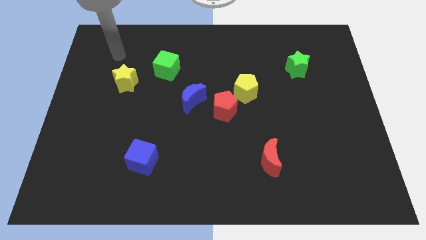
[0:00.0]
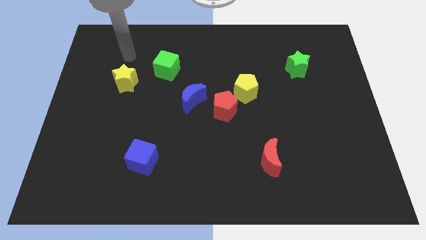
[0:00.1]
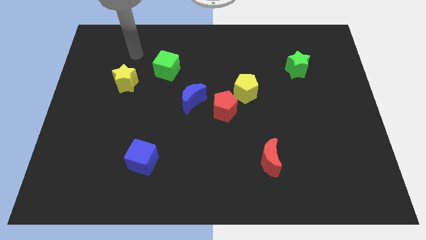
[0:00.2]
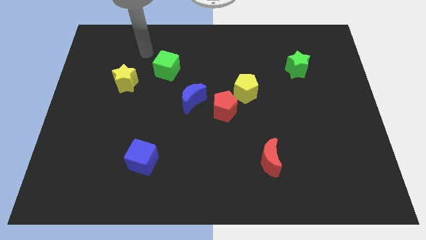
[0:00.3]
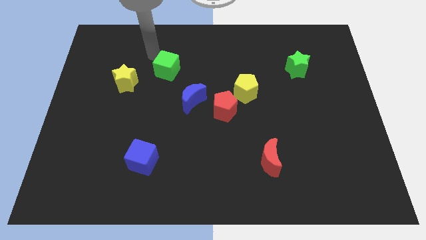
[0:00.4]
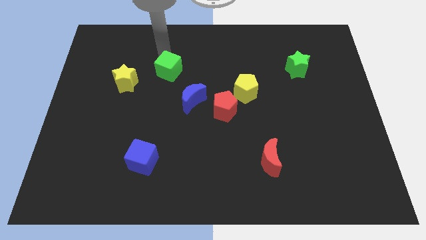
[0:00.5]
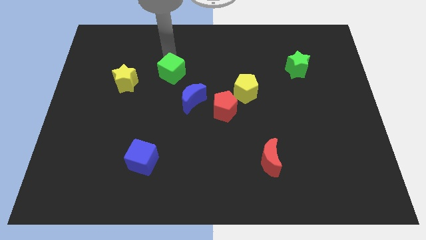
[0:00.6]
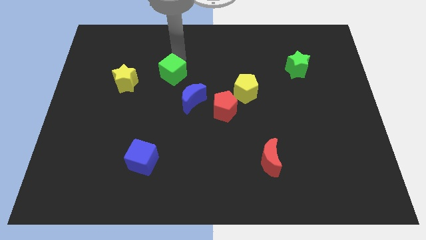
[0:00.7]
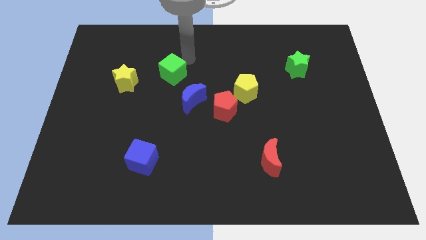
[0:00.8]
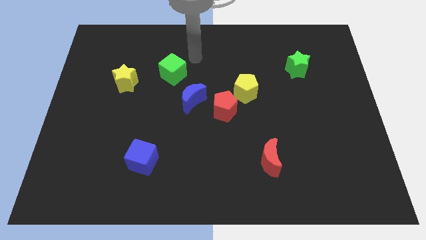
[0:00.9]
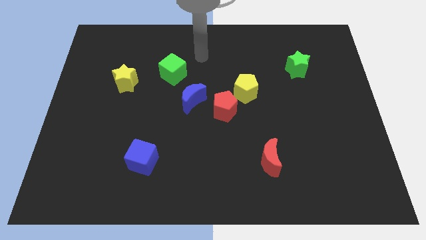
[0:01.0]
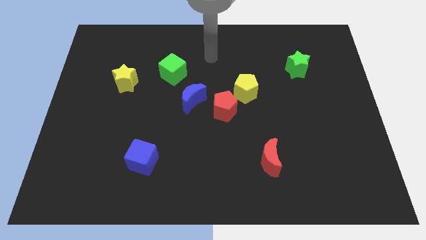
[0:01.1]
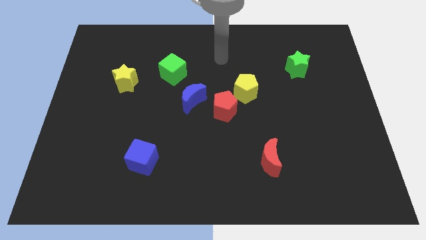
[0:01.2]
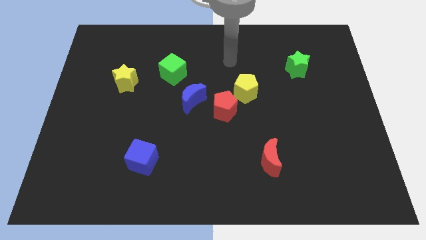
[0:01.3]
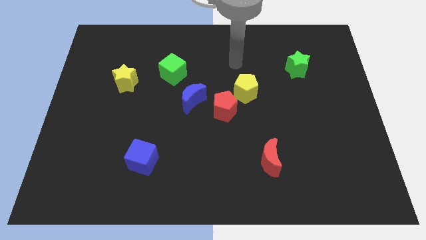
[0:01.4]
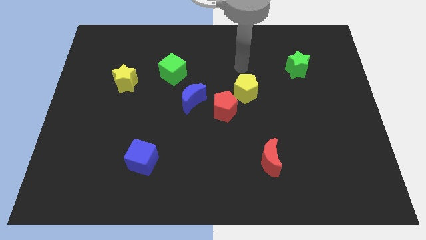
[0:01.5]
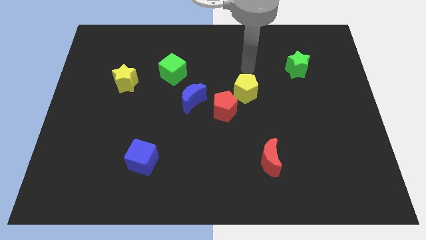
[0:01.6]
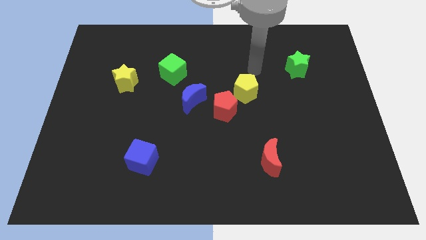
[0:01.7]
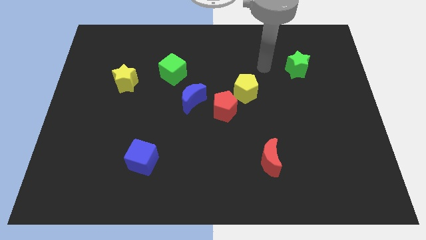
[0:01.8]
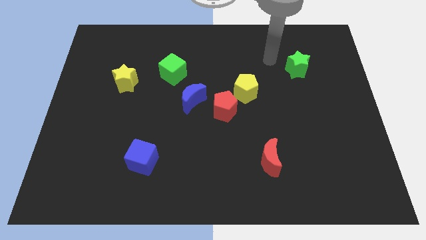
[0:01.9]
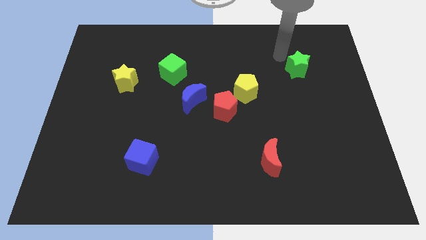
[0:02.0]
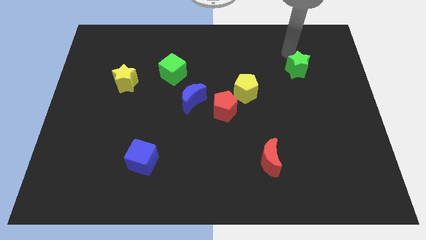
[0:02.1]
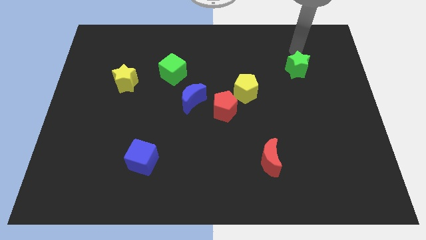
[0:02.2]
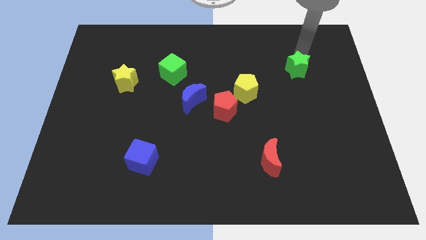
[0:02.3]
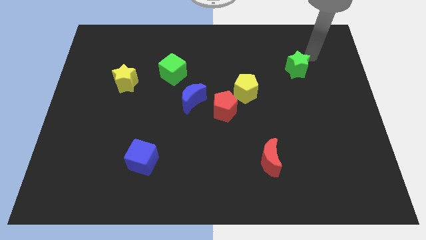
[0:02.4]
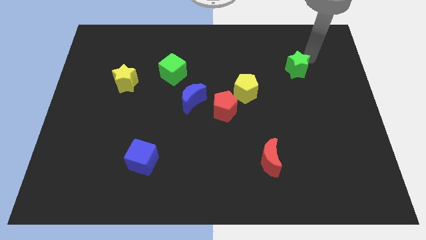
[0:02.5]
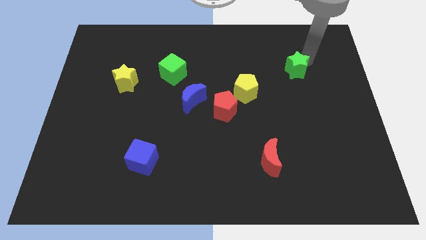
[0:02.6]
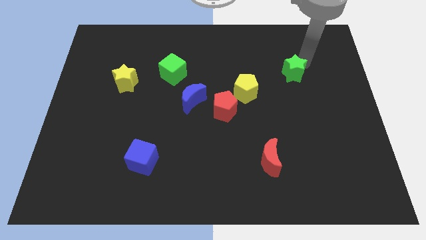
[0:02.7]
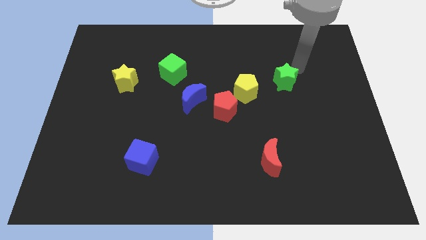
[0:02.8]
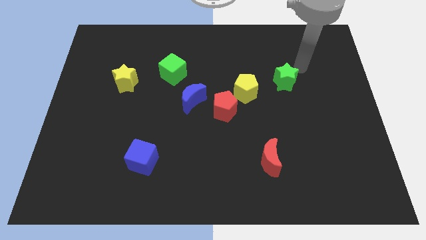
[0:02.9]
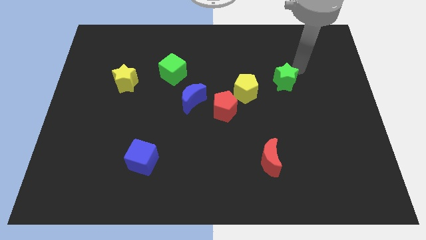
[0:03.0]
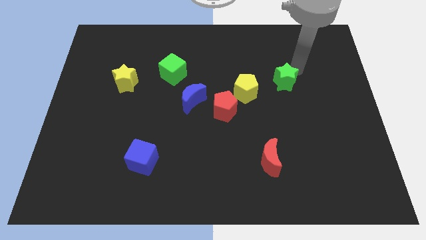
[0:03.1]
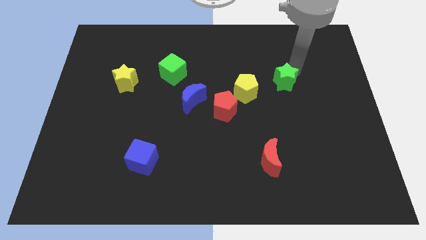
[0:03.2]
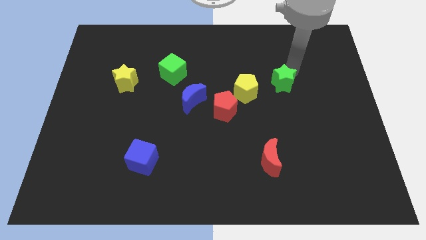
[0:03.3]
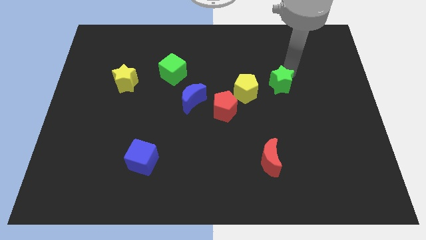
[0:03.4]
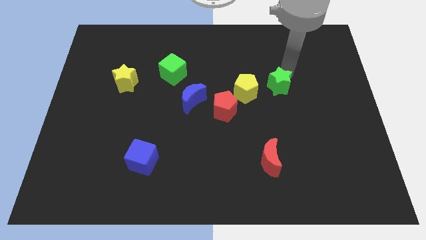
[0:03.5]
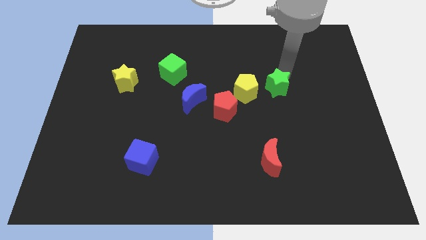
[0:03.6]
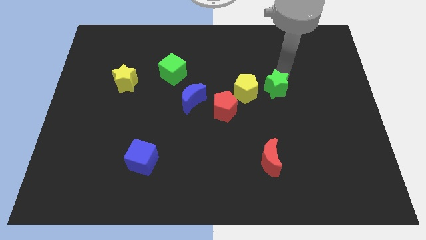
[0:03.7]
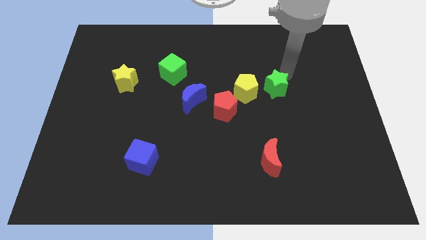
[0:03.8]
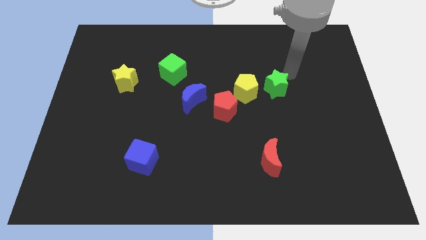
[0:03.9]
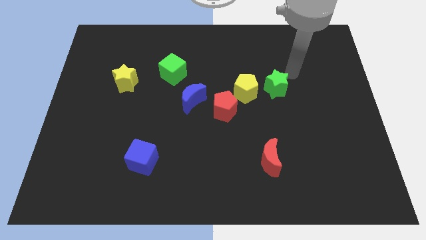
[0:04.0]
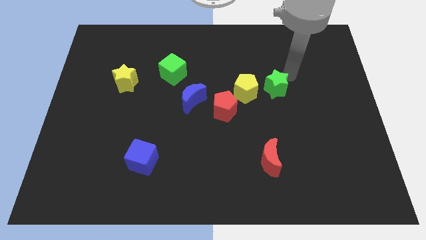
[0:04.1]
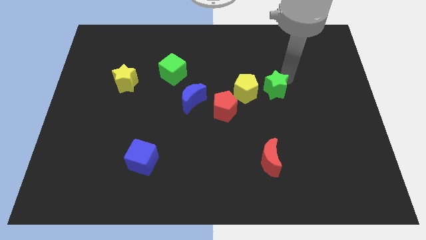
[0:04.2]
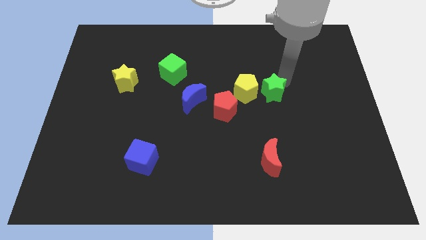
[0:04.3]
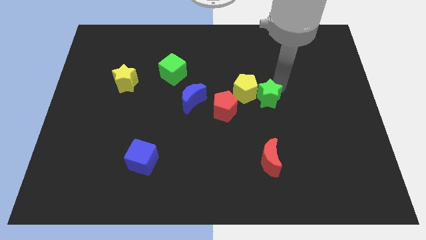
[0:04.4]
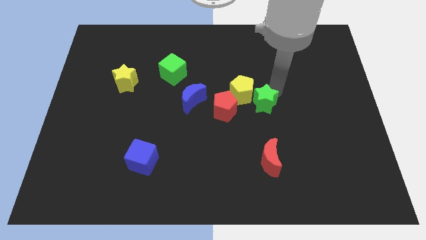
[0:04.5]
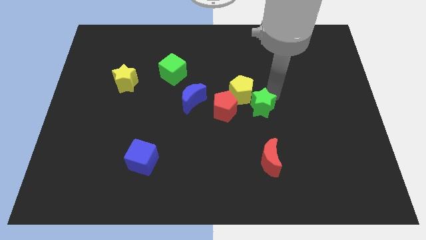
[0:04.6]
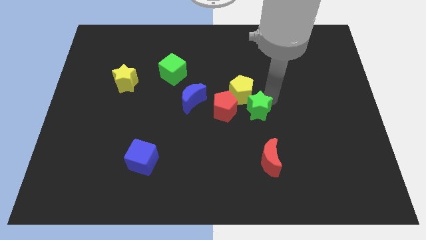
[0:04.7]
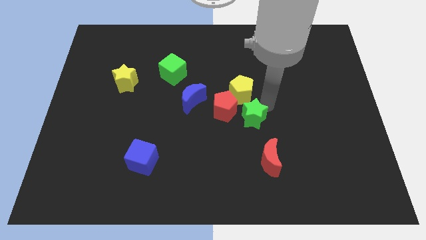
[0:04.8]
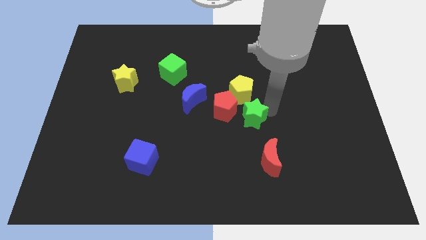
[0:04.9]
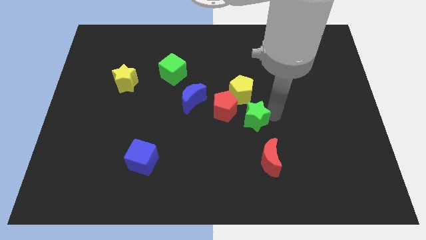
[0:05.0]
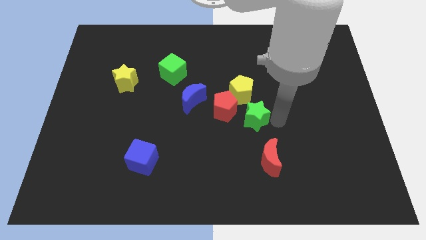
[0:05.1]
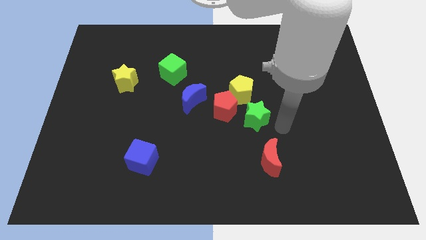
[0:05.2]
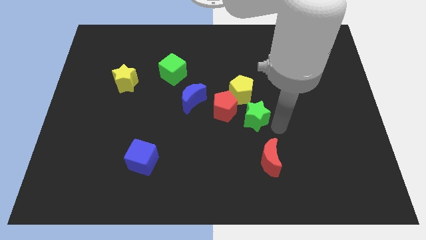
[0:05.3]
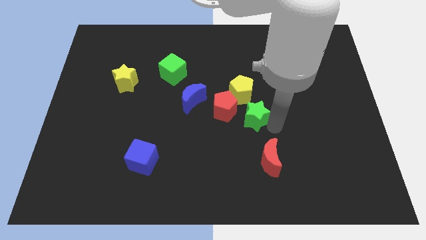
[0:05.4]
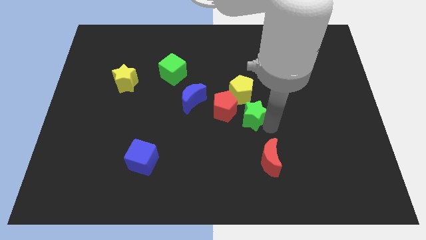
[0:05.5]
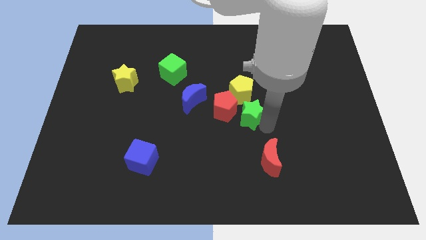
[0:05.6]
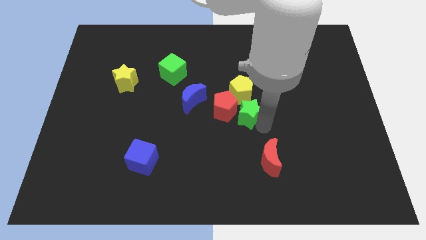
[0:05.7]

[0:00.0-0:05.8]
put the green star close to the red pentagon

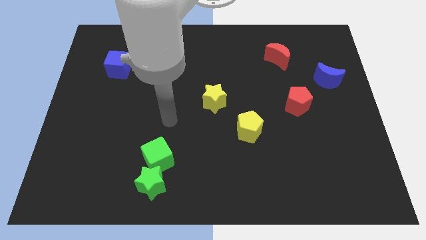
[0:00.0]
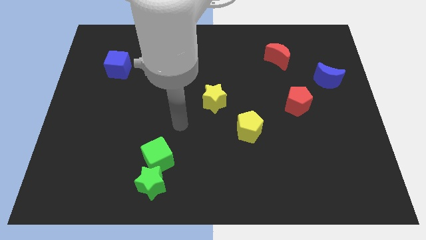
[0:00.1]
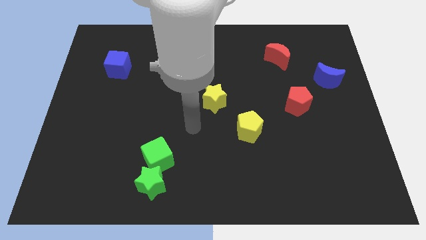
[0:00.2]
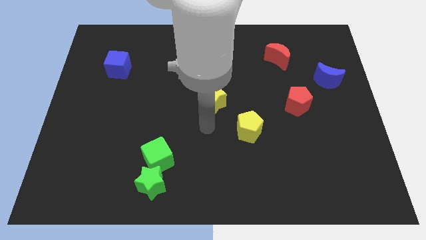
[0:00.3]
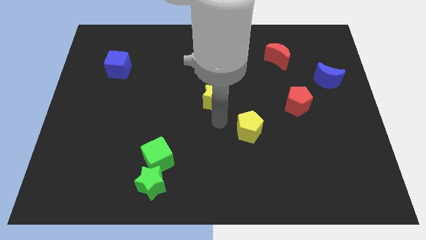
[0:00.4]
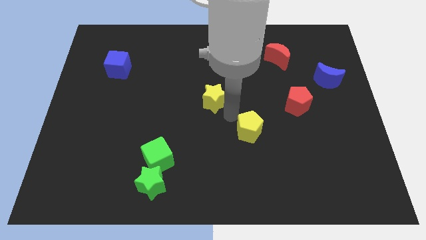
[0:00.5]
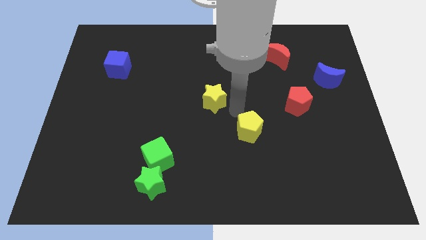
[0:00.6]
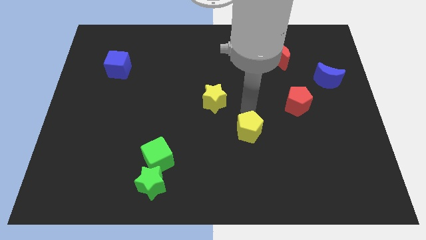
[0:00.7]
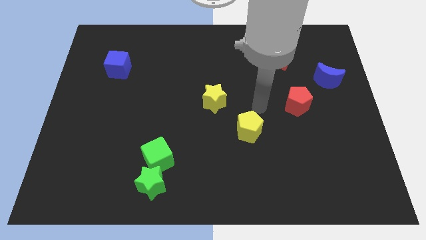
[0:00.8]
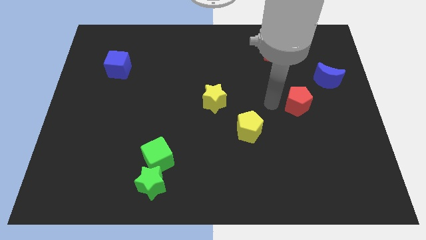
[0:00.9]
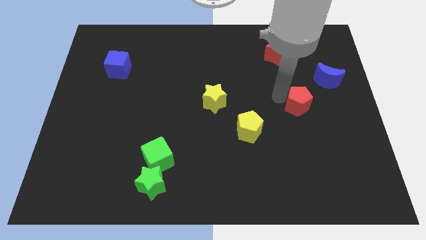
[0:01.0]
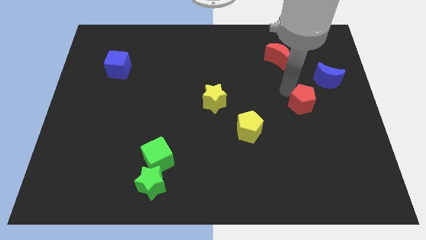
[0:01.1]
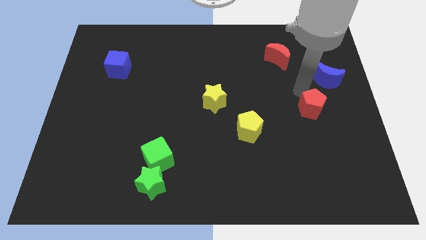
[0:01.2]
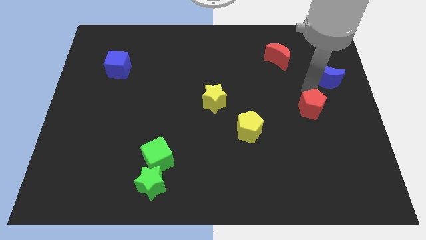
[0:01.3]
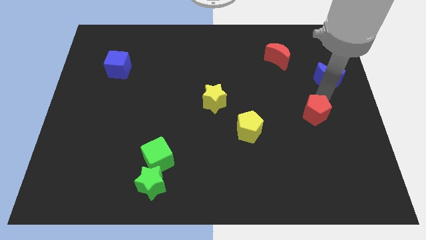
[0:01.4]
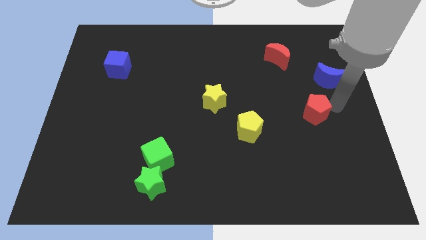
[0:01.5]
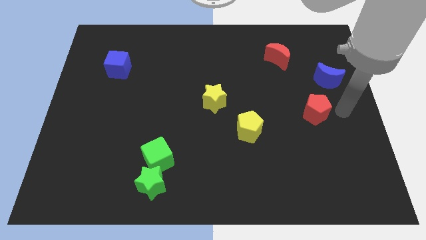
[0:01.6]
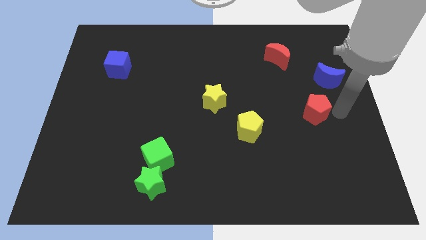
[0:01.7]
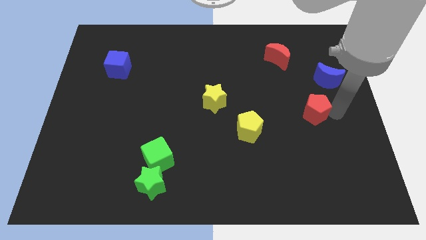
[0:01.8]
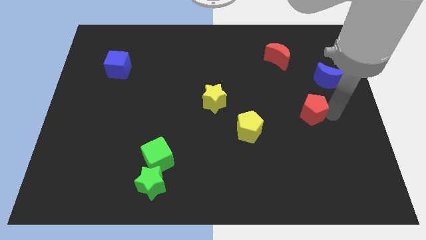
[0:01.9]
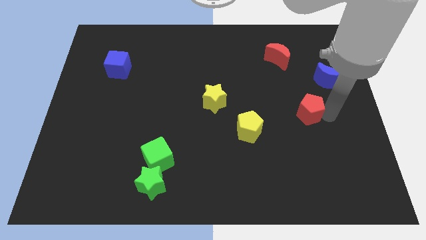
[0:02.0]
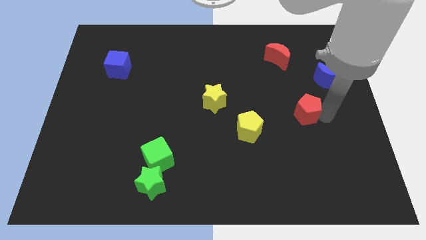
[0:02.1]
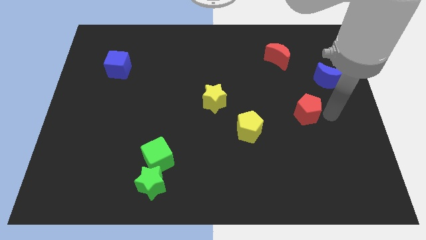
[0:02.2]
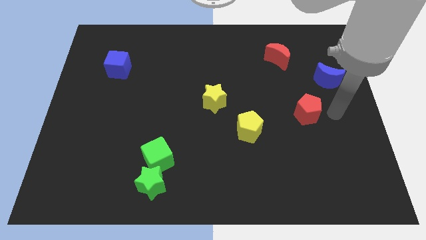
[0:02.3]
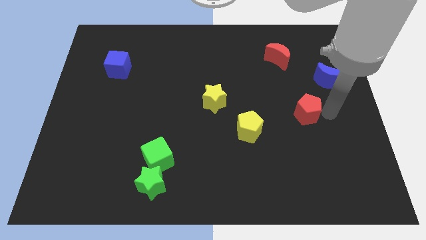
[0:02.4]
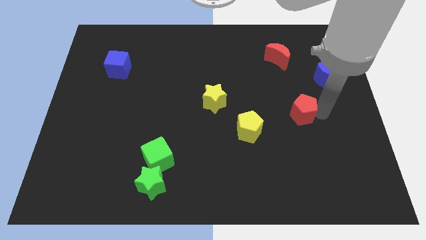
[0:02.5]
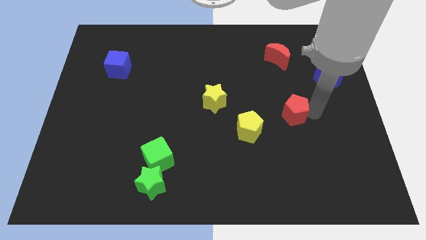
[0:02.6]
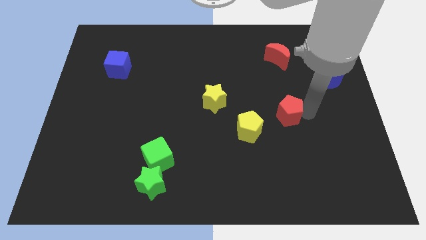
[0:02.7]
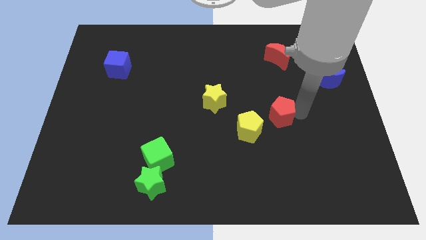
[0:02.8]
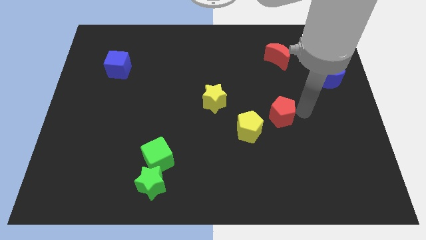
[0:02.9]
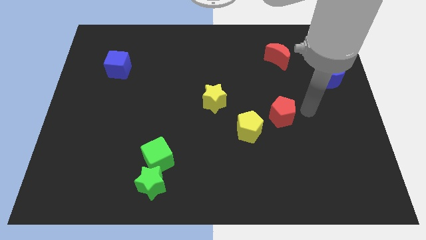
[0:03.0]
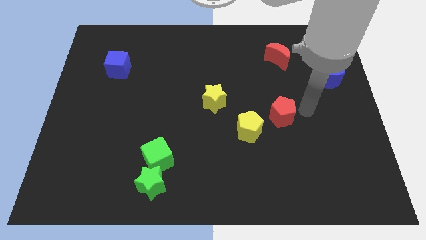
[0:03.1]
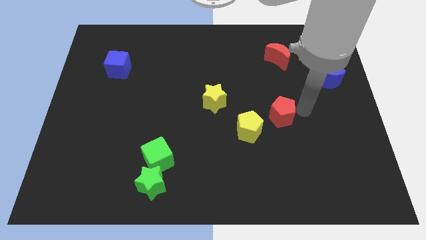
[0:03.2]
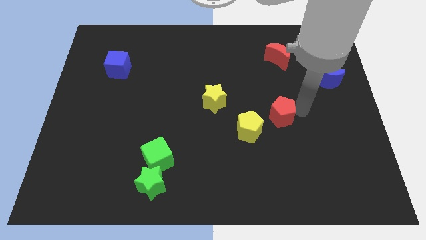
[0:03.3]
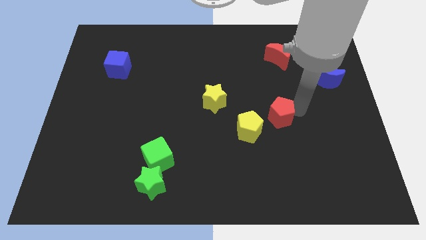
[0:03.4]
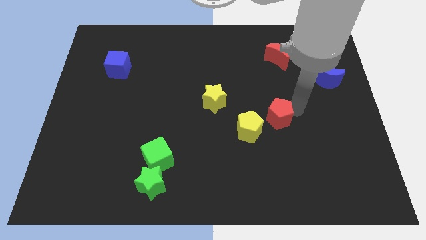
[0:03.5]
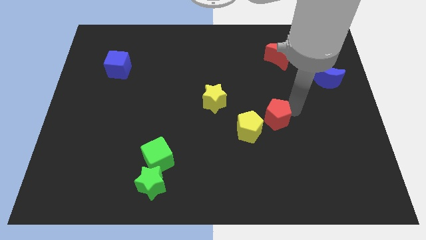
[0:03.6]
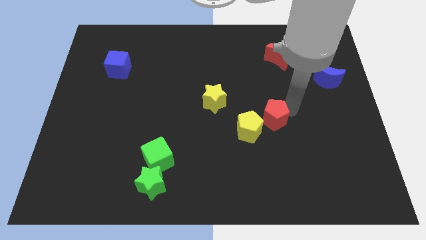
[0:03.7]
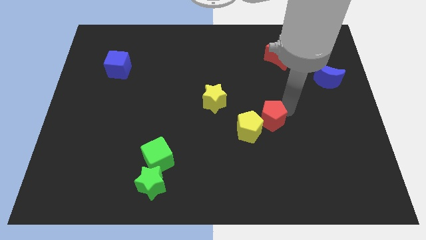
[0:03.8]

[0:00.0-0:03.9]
push the red pentagon next to the yellow pentagon
